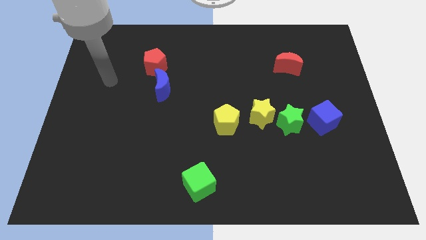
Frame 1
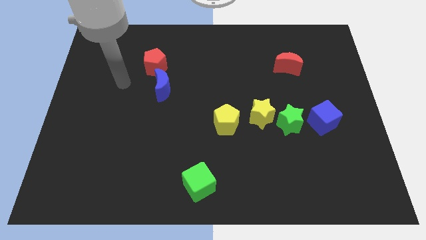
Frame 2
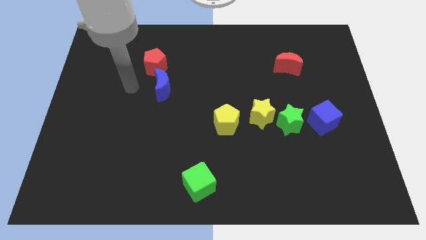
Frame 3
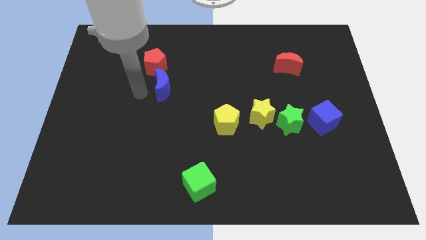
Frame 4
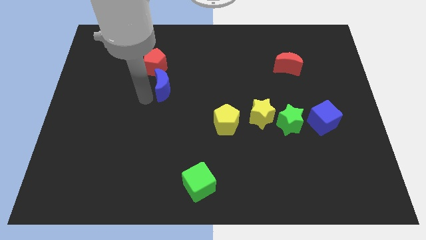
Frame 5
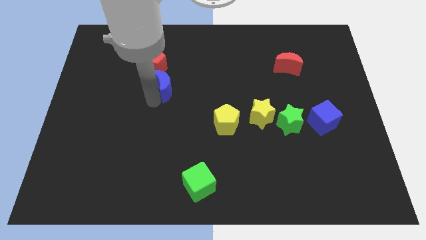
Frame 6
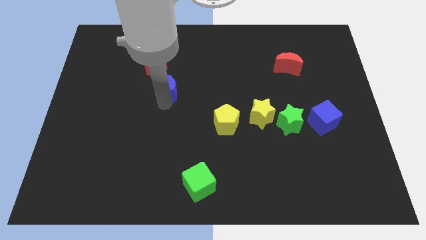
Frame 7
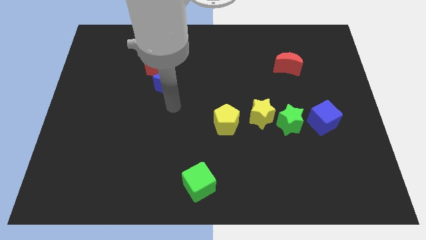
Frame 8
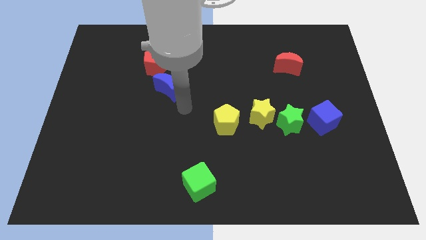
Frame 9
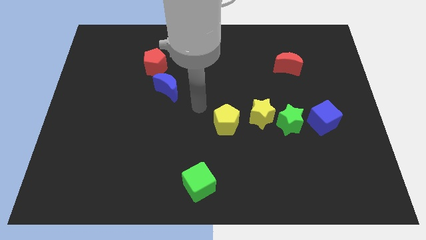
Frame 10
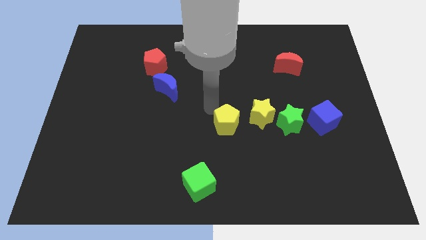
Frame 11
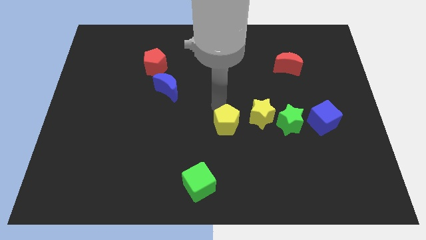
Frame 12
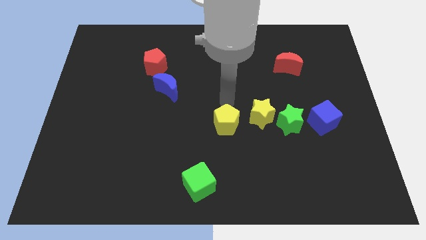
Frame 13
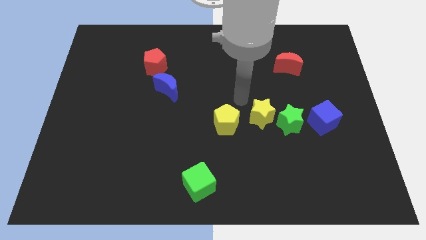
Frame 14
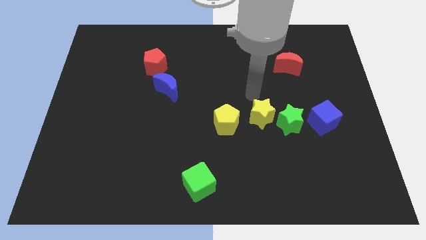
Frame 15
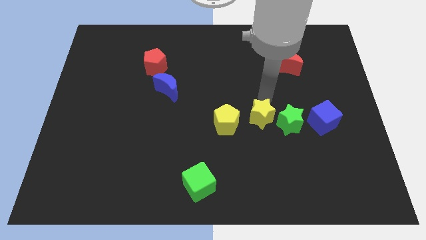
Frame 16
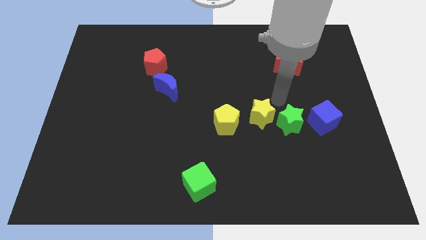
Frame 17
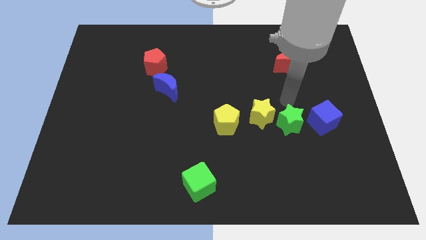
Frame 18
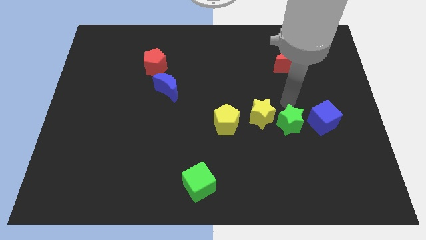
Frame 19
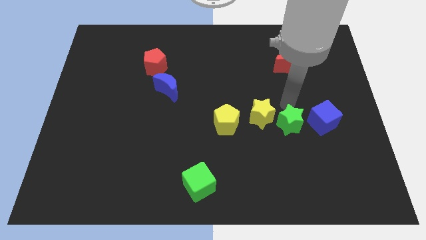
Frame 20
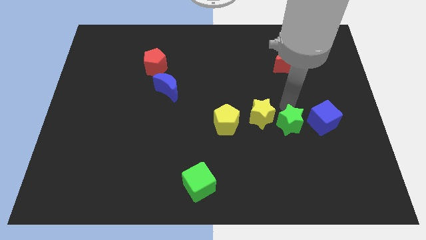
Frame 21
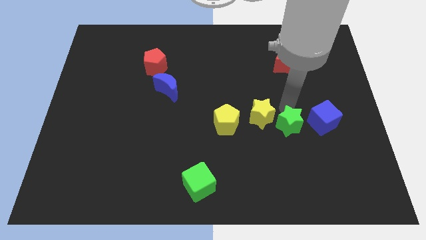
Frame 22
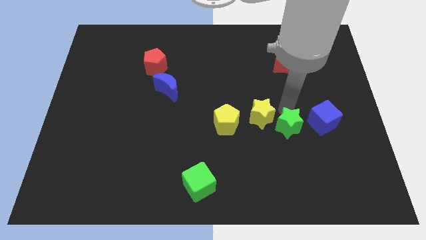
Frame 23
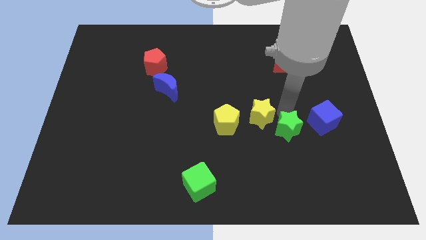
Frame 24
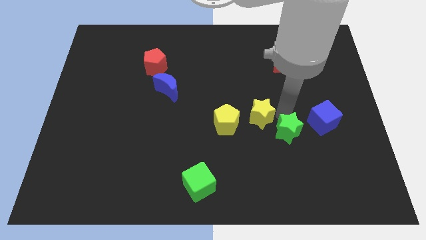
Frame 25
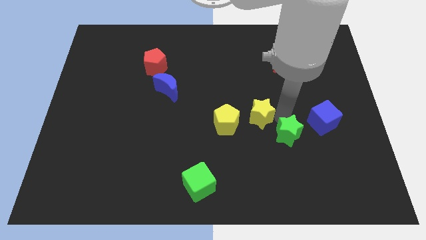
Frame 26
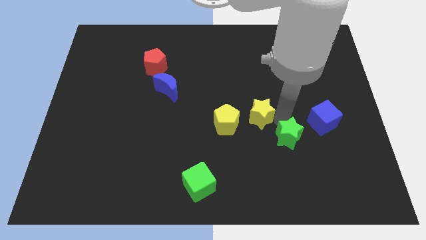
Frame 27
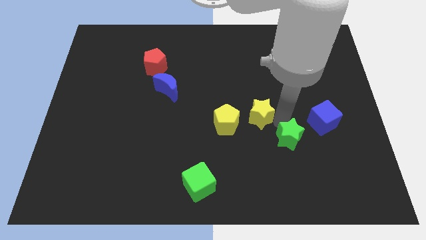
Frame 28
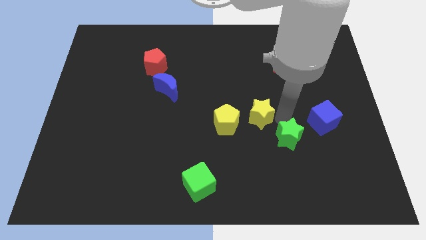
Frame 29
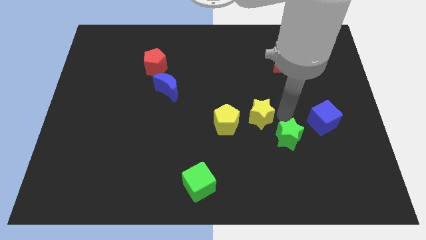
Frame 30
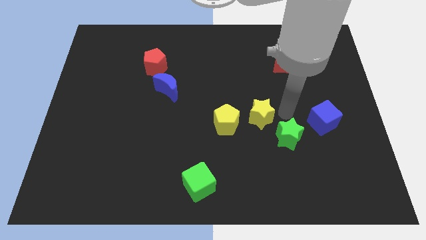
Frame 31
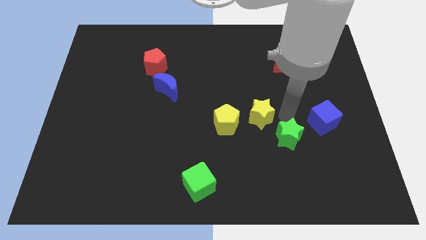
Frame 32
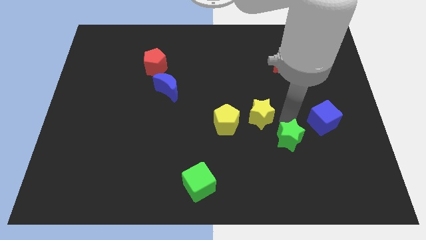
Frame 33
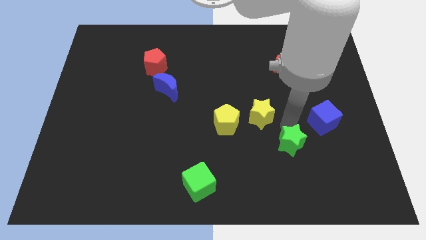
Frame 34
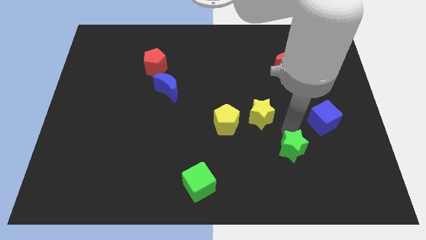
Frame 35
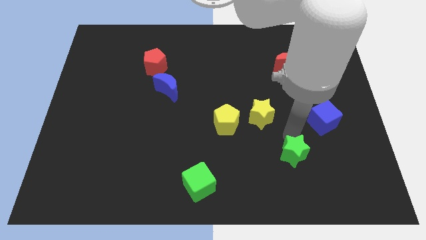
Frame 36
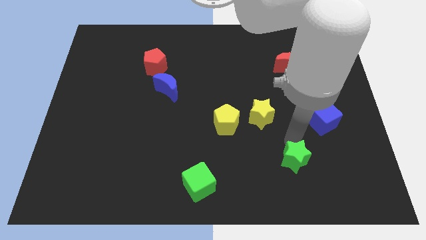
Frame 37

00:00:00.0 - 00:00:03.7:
move the green star away from the yellow star and blue cube

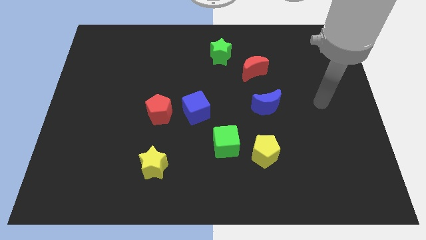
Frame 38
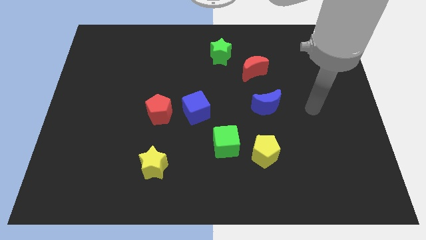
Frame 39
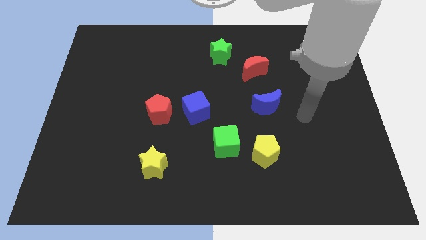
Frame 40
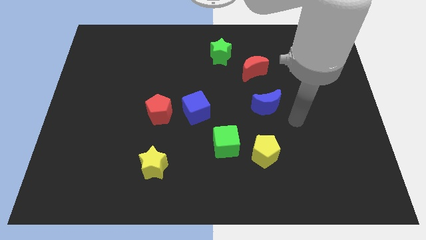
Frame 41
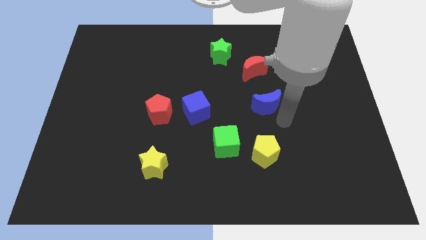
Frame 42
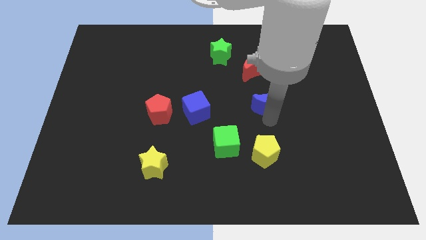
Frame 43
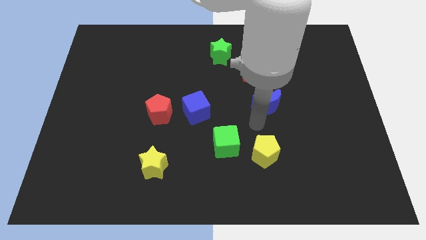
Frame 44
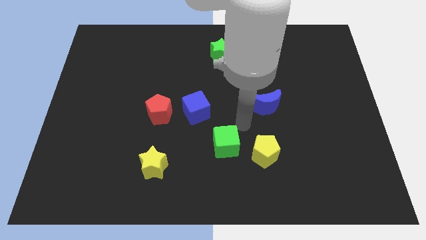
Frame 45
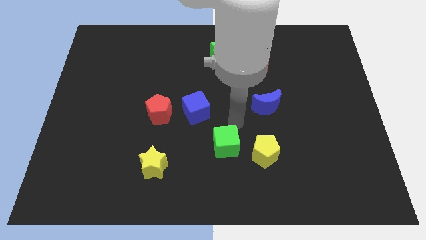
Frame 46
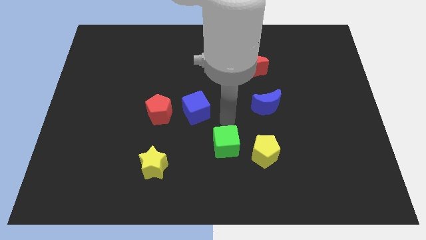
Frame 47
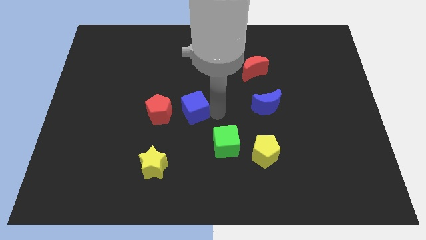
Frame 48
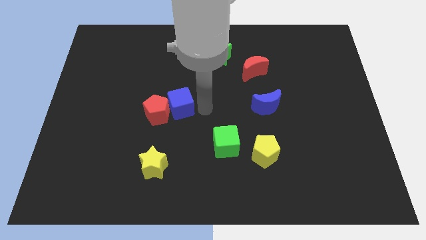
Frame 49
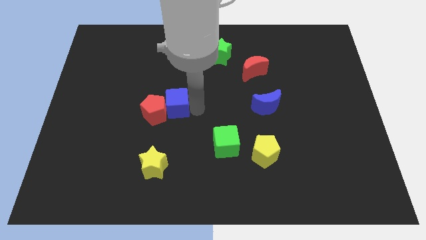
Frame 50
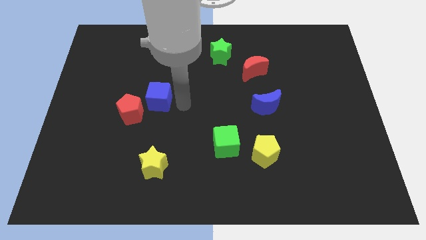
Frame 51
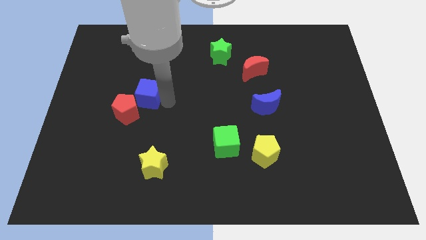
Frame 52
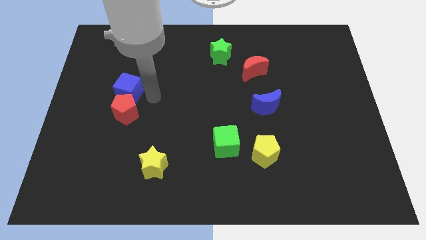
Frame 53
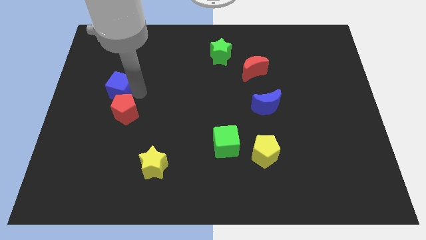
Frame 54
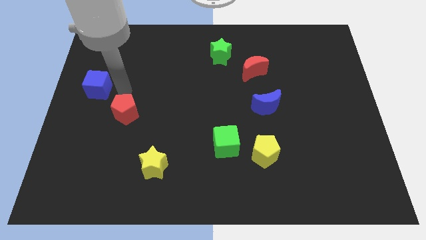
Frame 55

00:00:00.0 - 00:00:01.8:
separate the red pentagon from the blue cube

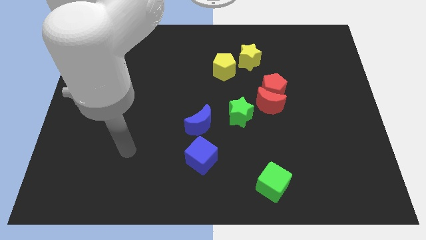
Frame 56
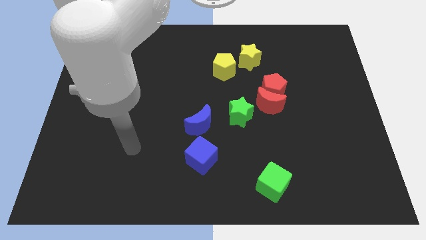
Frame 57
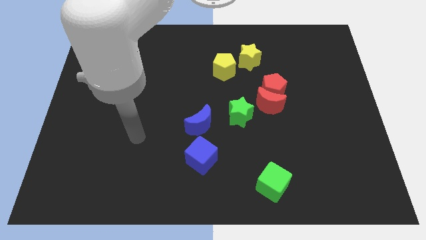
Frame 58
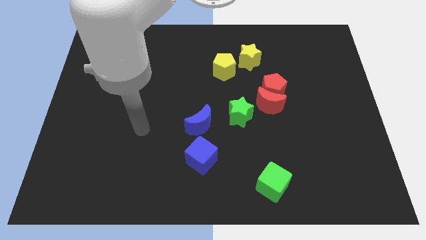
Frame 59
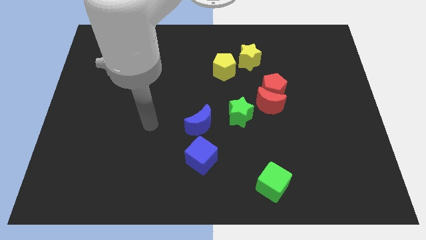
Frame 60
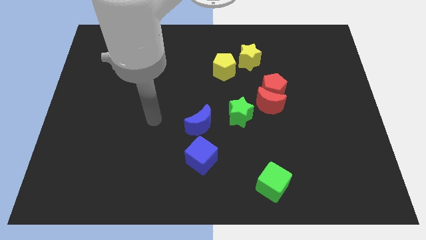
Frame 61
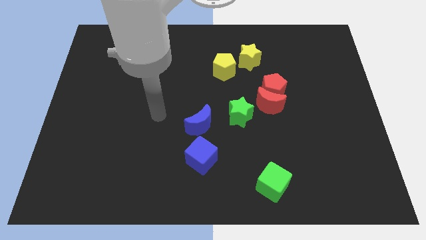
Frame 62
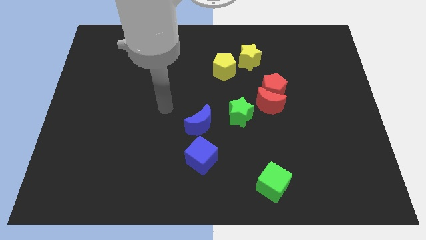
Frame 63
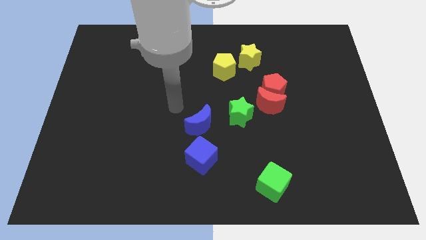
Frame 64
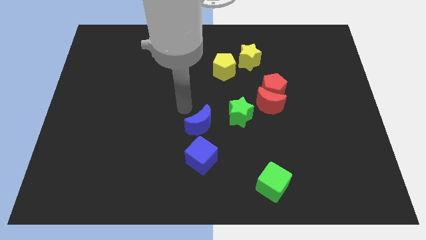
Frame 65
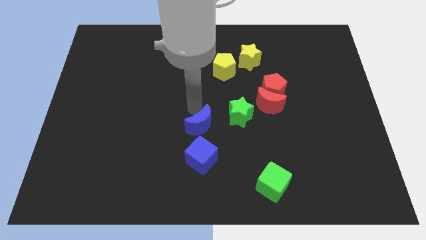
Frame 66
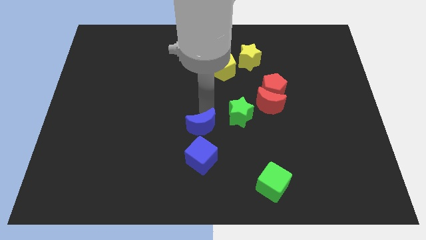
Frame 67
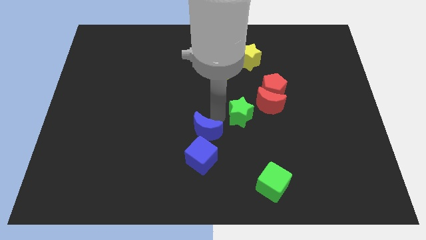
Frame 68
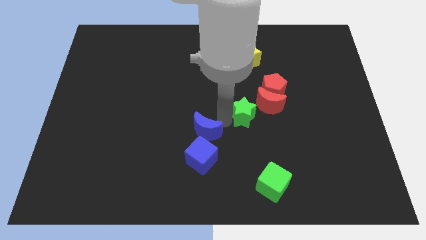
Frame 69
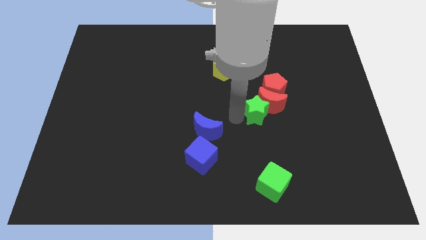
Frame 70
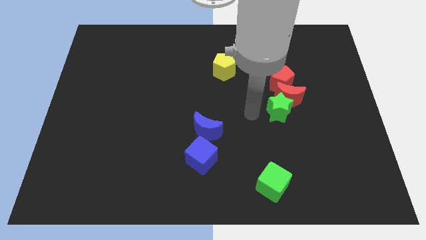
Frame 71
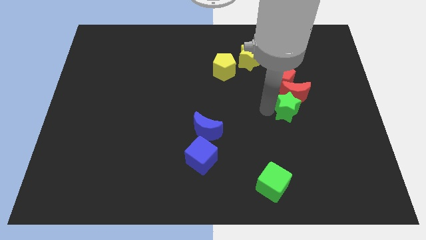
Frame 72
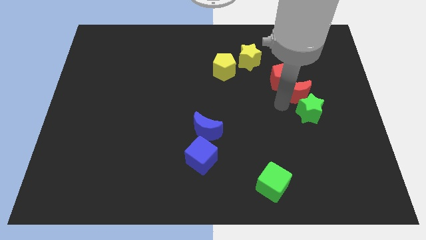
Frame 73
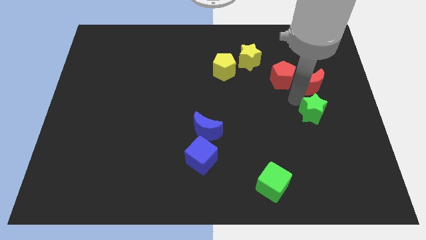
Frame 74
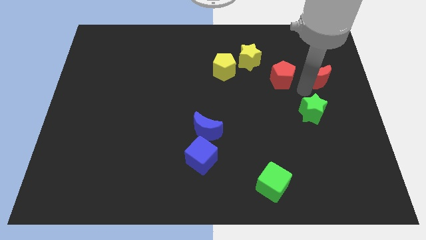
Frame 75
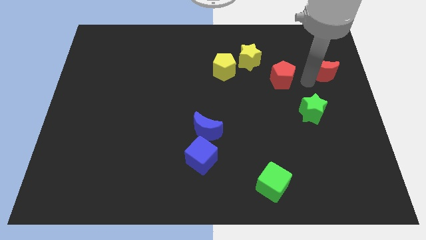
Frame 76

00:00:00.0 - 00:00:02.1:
move the red pentagon away from the red moon

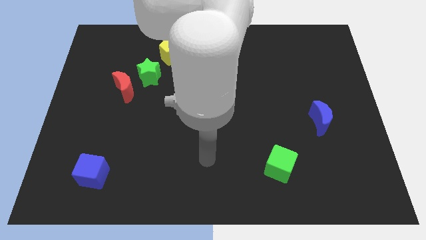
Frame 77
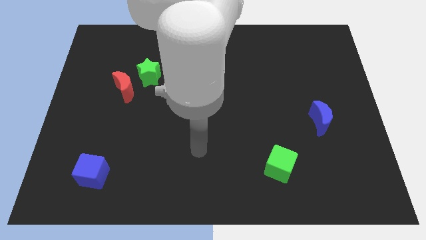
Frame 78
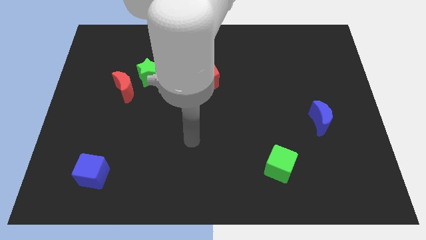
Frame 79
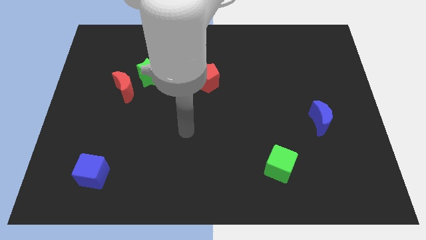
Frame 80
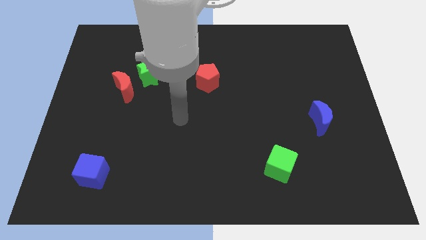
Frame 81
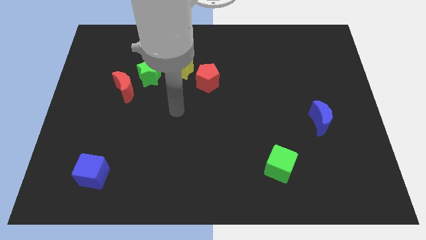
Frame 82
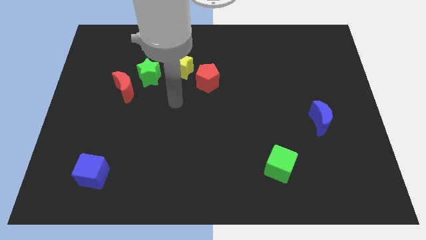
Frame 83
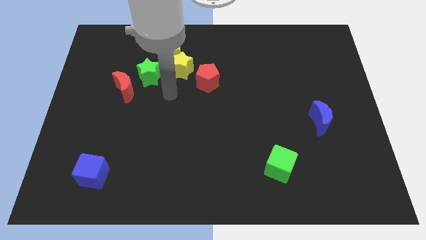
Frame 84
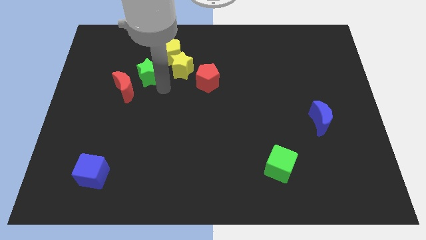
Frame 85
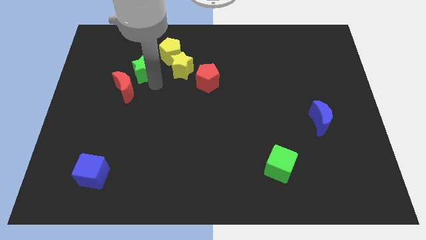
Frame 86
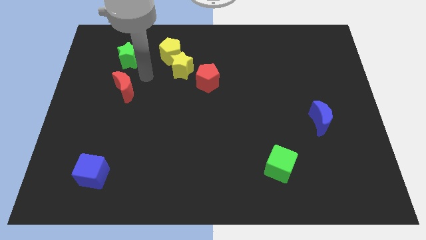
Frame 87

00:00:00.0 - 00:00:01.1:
pull the red moon apart from the green star

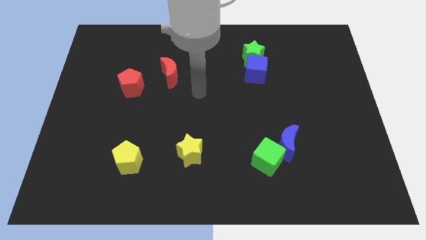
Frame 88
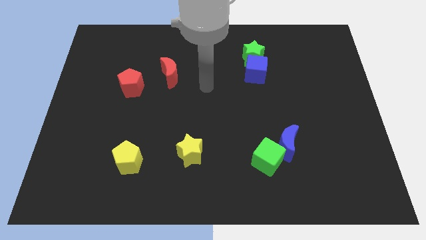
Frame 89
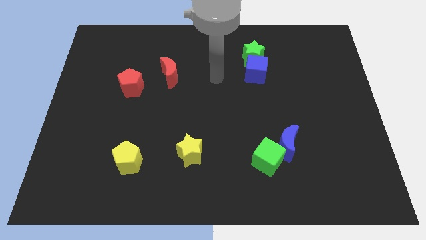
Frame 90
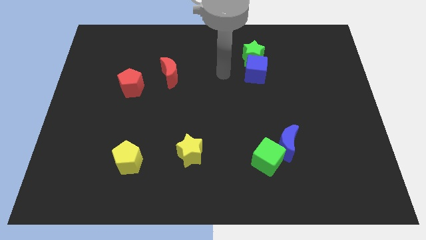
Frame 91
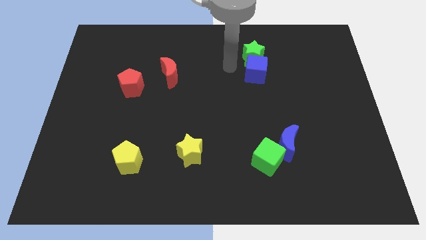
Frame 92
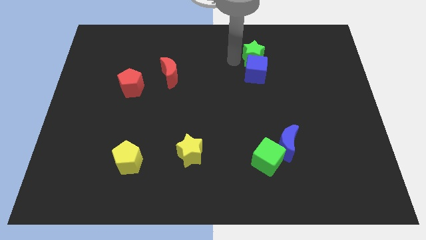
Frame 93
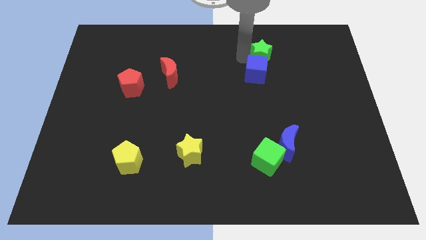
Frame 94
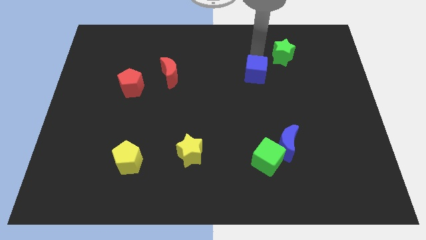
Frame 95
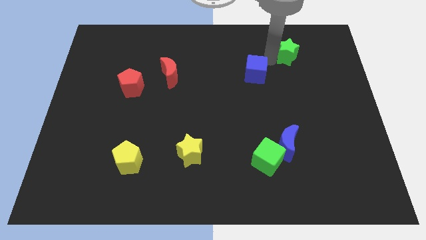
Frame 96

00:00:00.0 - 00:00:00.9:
separate the blue cube from the green star
